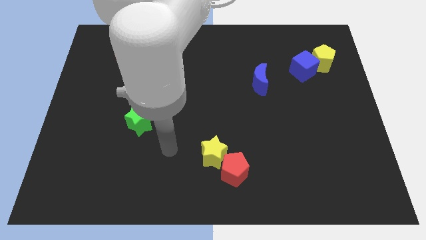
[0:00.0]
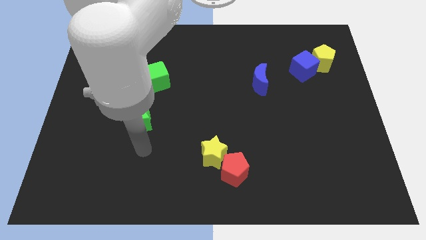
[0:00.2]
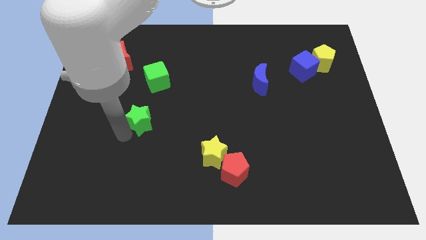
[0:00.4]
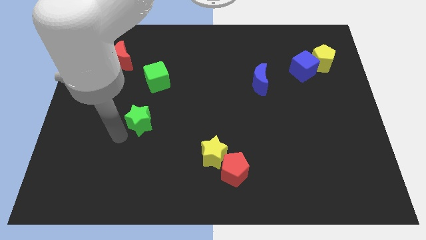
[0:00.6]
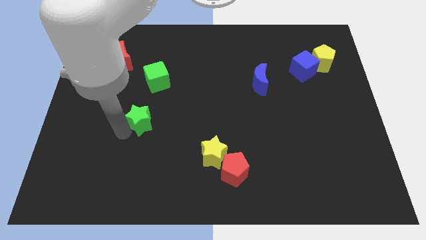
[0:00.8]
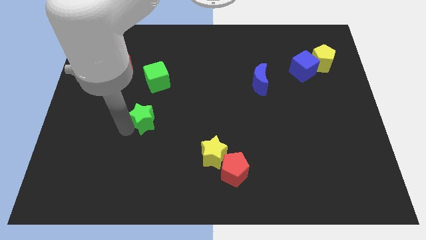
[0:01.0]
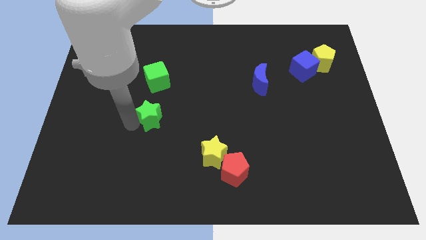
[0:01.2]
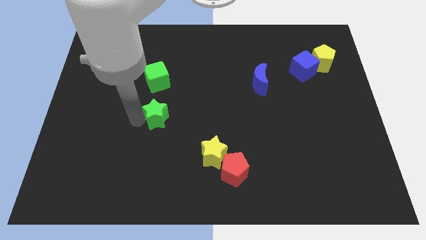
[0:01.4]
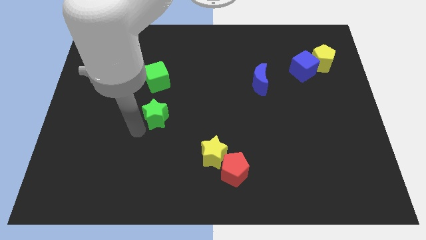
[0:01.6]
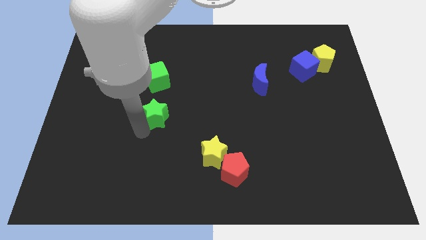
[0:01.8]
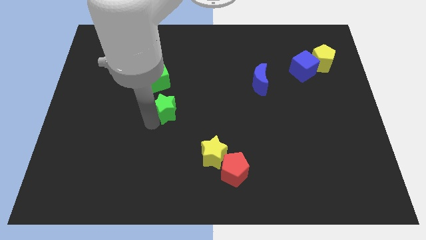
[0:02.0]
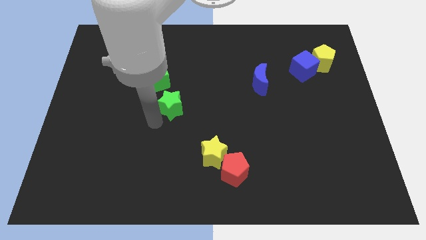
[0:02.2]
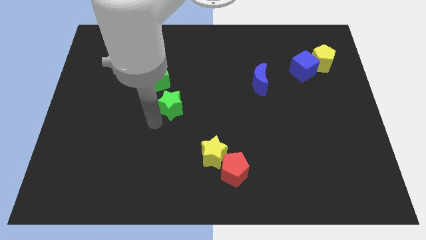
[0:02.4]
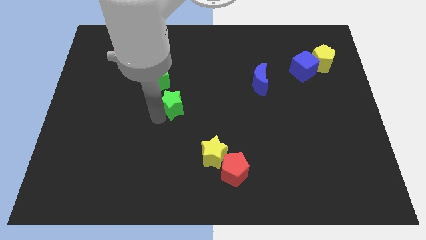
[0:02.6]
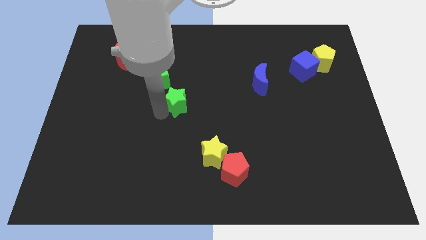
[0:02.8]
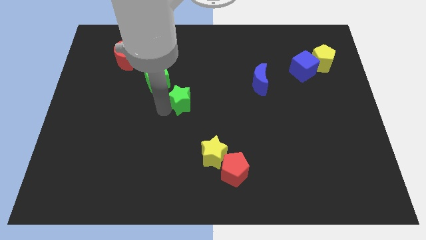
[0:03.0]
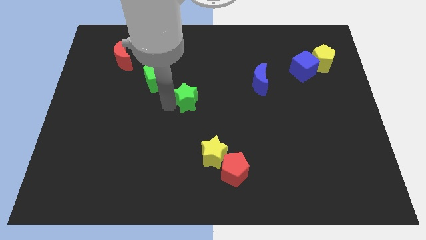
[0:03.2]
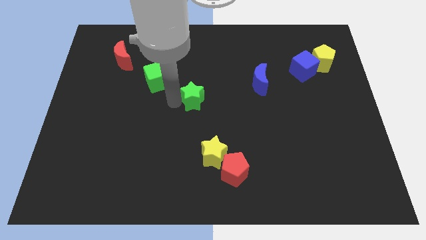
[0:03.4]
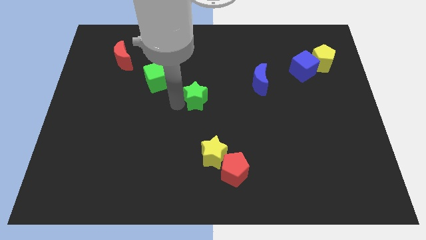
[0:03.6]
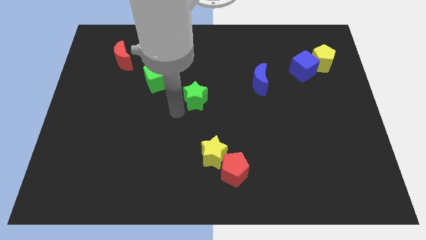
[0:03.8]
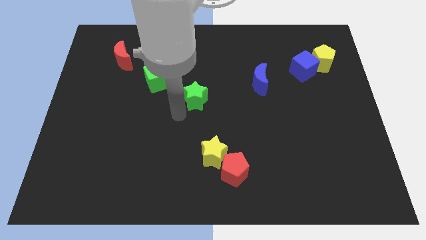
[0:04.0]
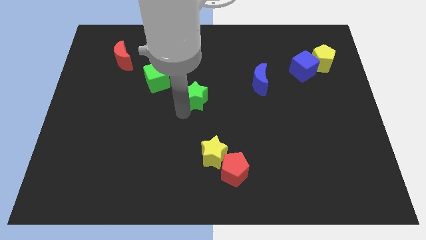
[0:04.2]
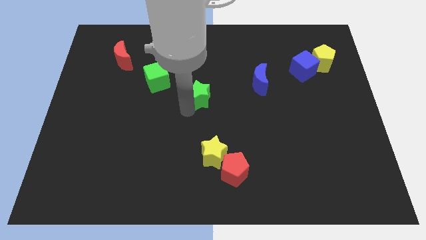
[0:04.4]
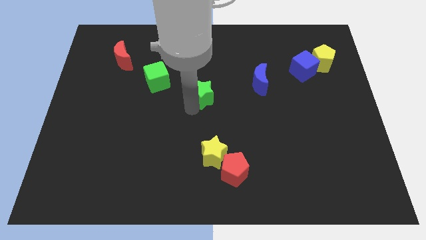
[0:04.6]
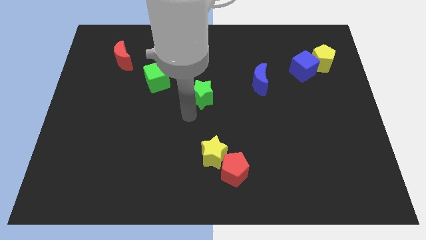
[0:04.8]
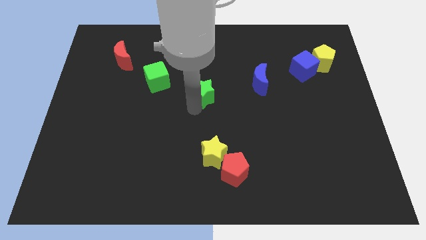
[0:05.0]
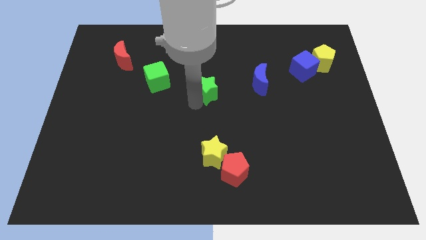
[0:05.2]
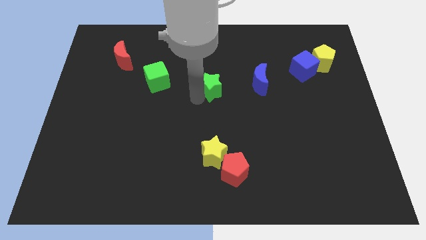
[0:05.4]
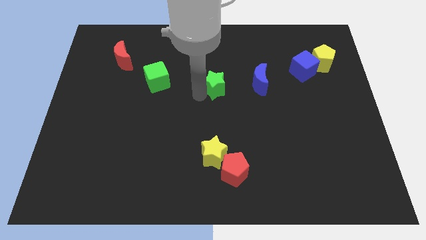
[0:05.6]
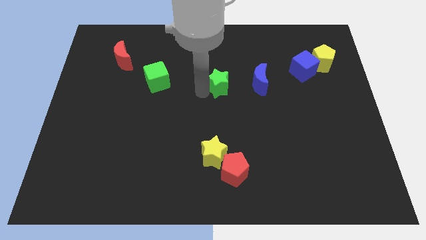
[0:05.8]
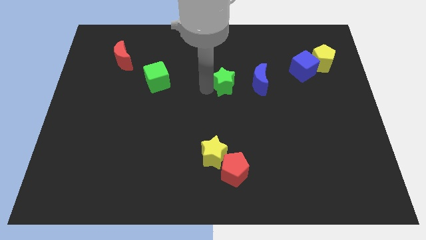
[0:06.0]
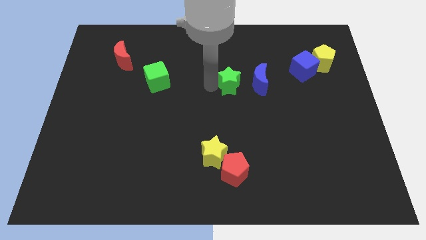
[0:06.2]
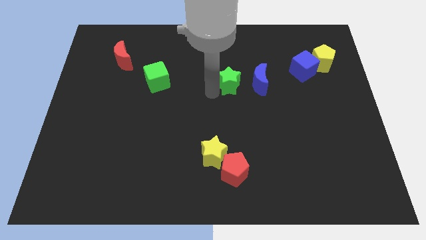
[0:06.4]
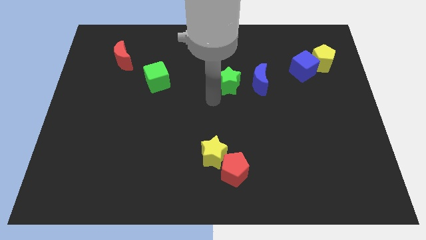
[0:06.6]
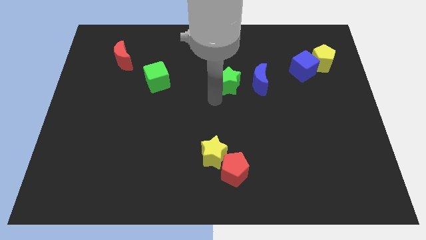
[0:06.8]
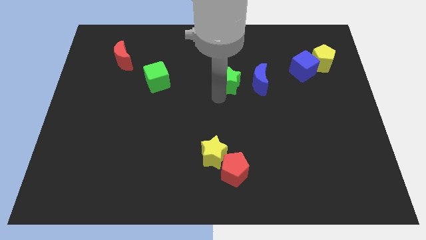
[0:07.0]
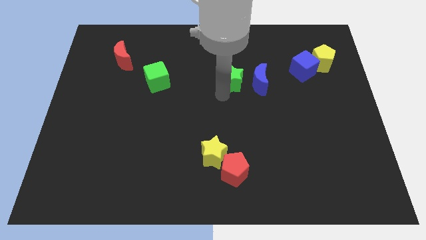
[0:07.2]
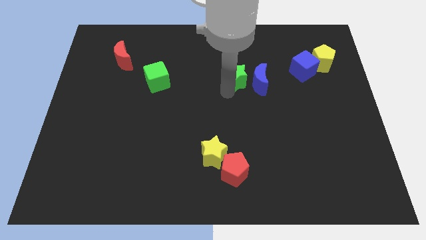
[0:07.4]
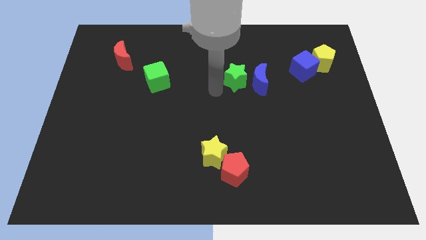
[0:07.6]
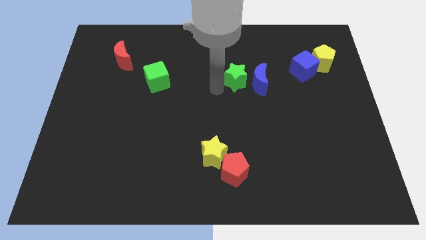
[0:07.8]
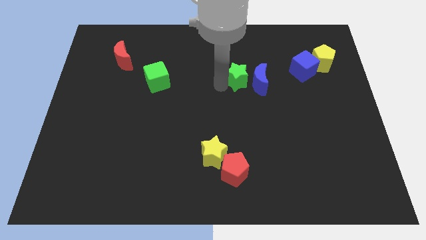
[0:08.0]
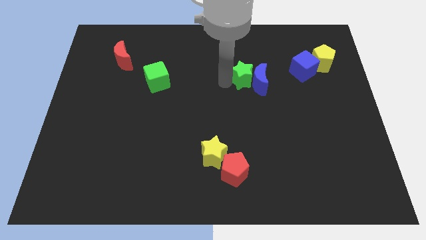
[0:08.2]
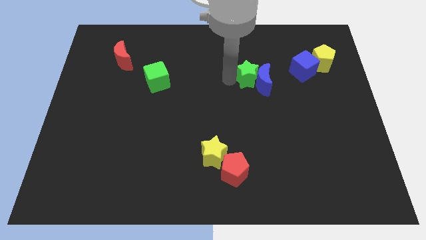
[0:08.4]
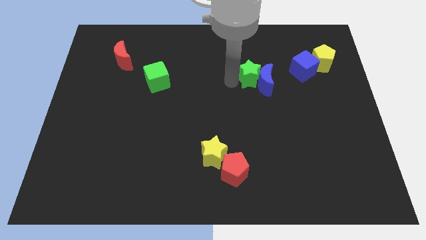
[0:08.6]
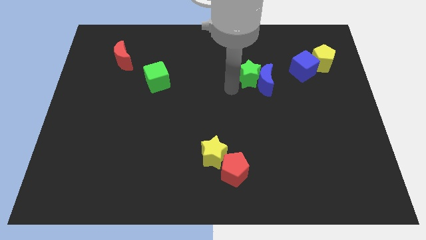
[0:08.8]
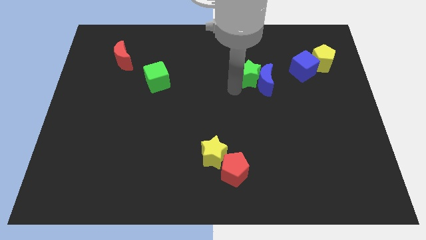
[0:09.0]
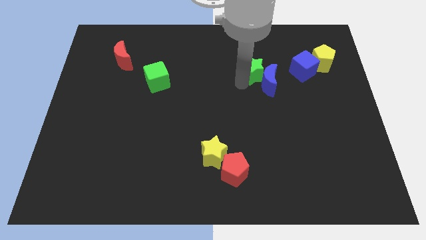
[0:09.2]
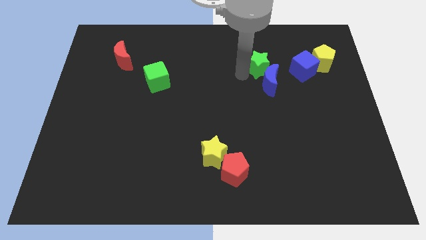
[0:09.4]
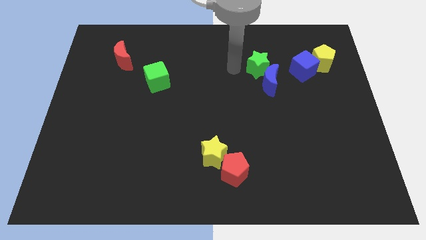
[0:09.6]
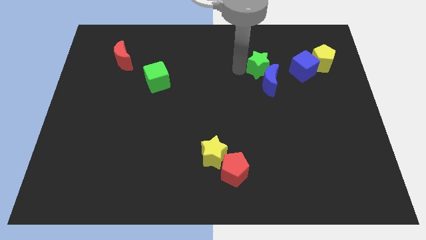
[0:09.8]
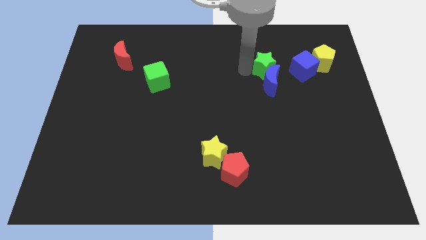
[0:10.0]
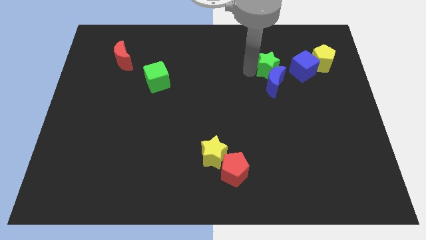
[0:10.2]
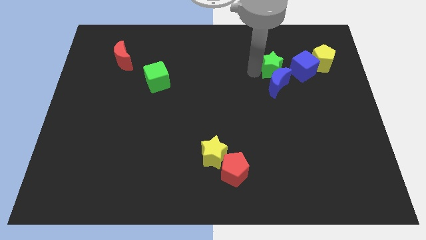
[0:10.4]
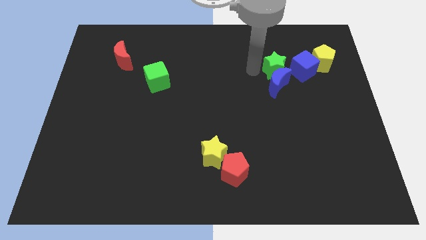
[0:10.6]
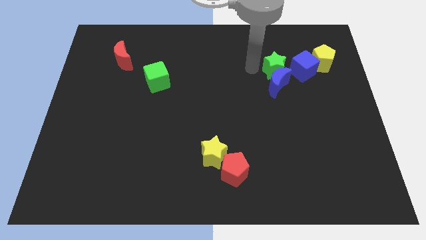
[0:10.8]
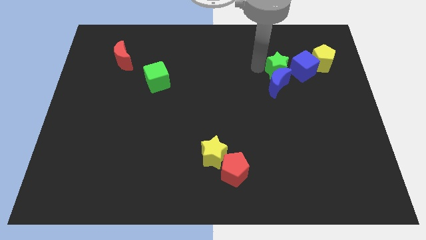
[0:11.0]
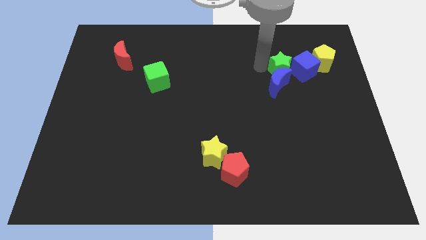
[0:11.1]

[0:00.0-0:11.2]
slide the green star to the blue cube

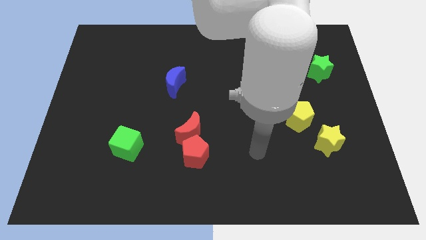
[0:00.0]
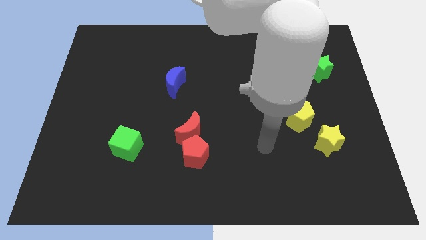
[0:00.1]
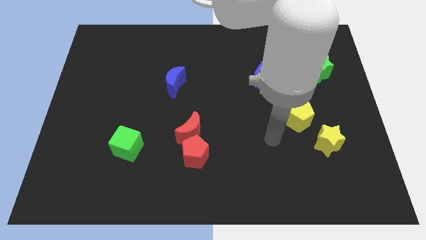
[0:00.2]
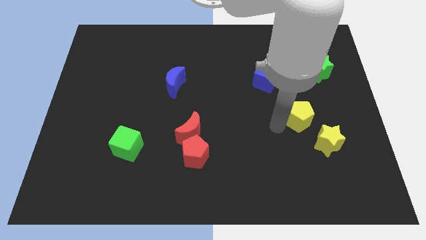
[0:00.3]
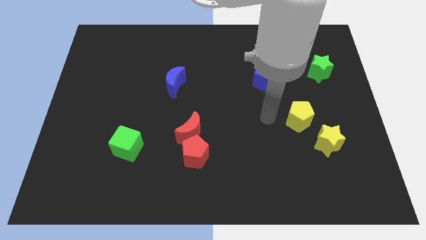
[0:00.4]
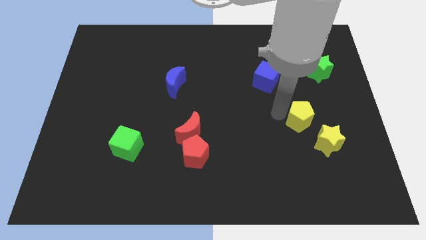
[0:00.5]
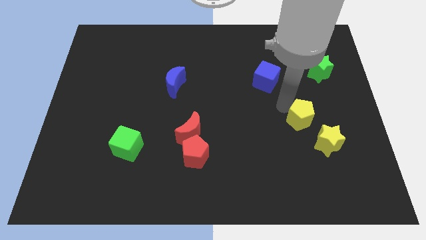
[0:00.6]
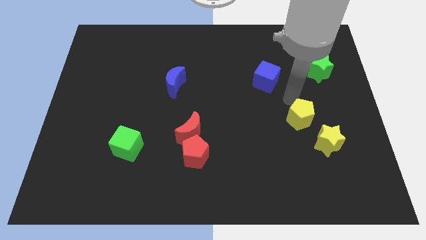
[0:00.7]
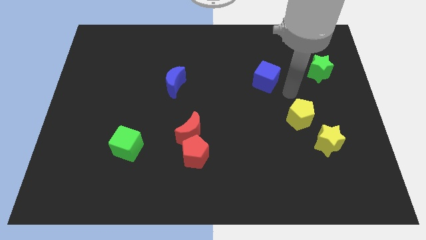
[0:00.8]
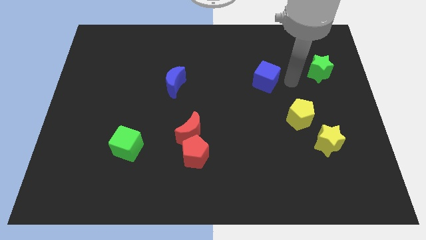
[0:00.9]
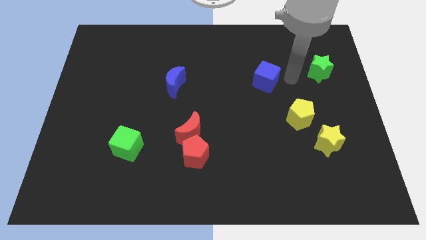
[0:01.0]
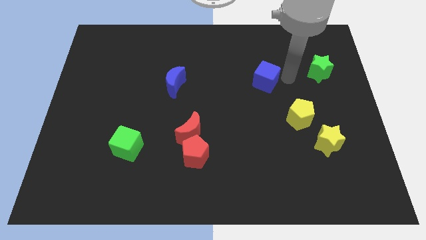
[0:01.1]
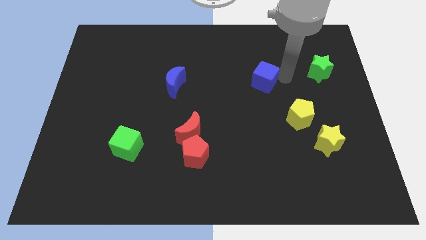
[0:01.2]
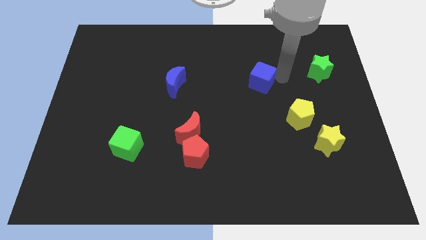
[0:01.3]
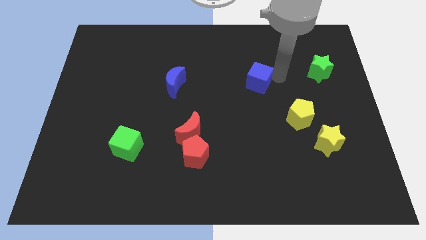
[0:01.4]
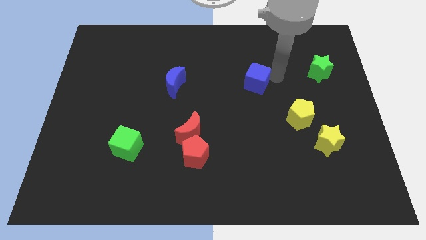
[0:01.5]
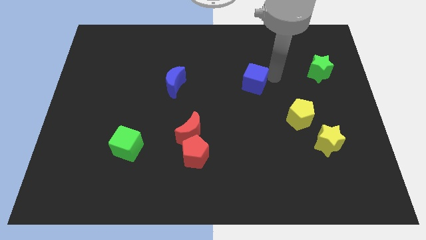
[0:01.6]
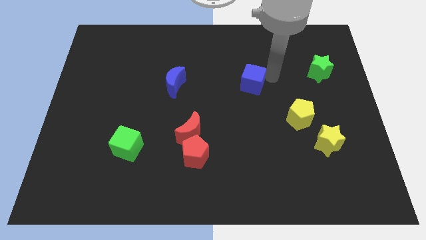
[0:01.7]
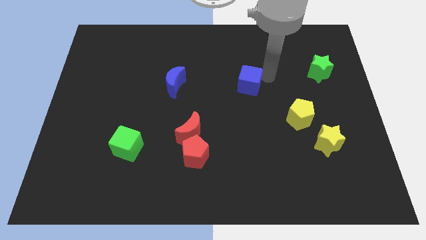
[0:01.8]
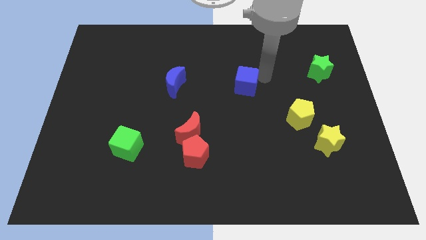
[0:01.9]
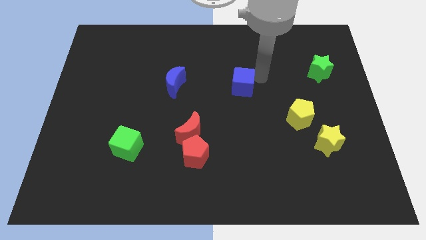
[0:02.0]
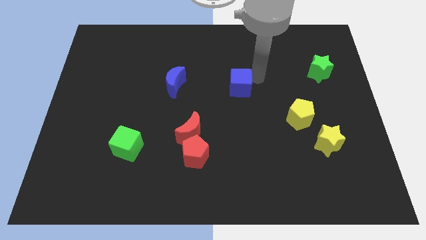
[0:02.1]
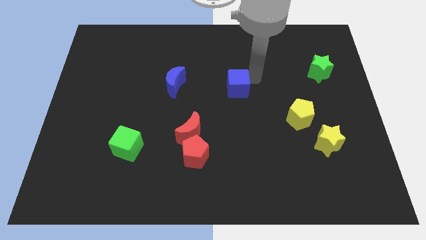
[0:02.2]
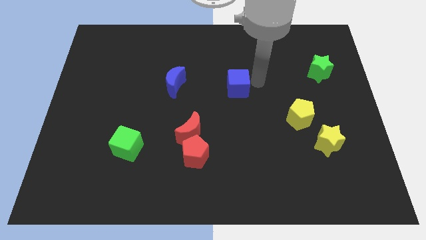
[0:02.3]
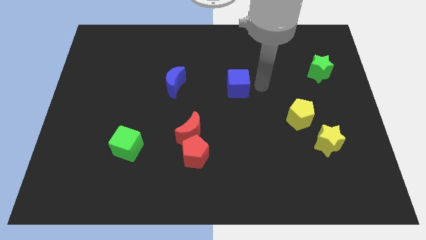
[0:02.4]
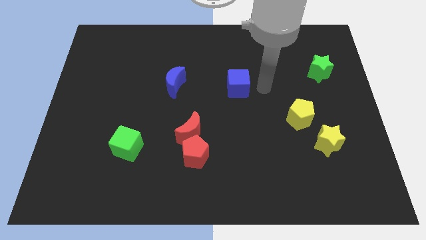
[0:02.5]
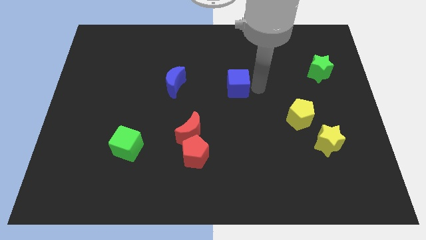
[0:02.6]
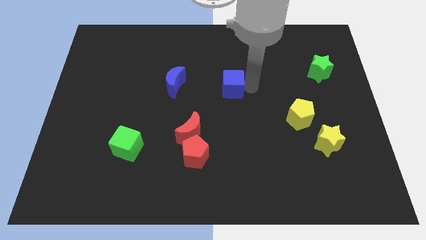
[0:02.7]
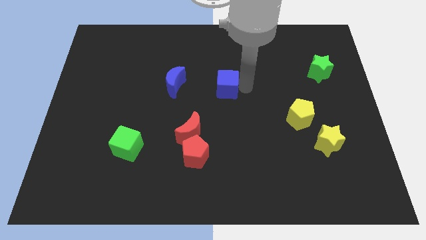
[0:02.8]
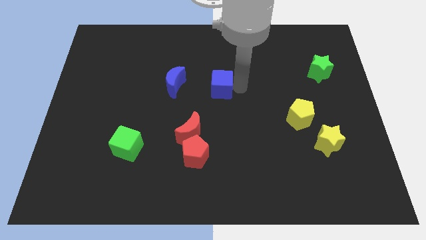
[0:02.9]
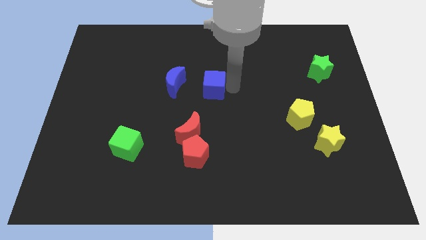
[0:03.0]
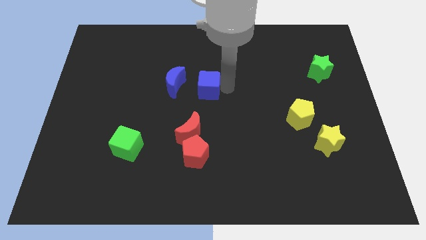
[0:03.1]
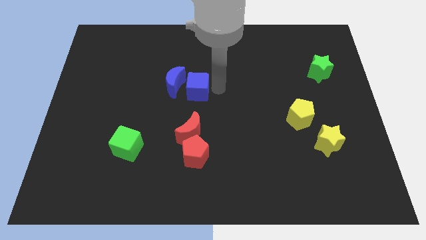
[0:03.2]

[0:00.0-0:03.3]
put the blue cube towards the blue moon
